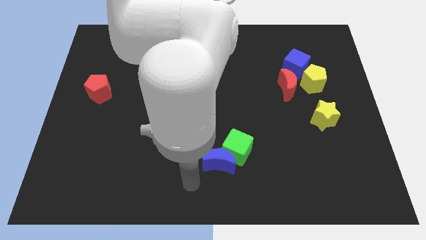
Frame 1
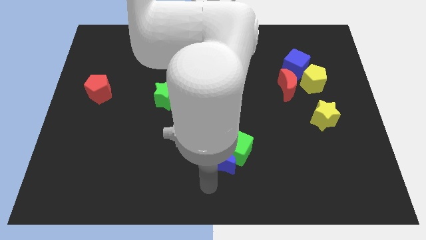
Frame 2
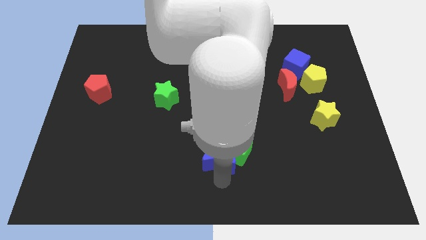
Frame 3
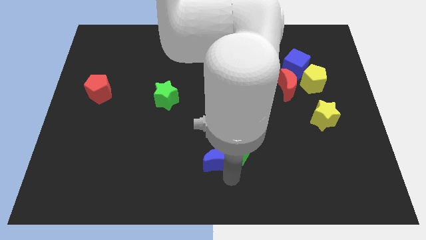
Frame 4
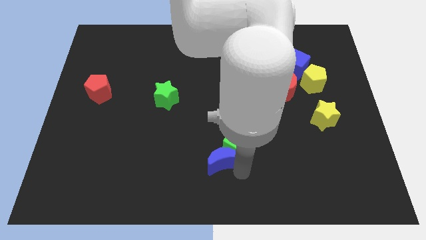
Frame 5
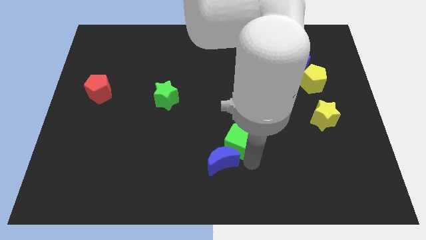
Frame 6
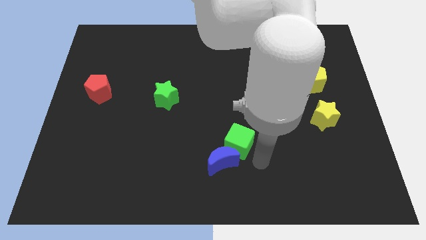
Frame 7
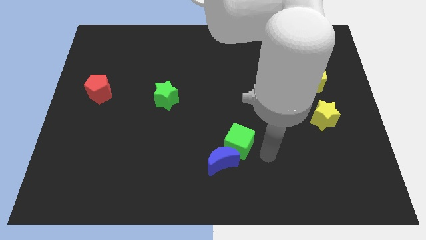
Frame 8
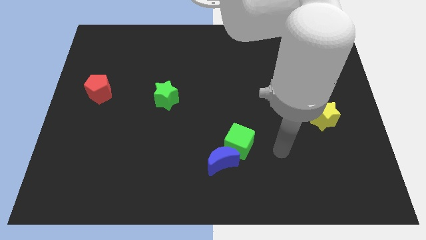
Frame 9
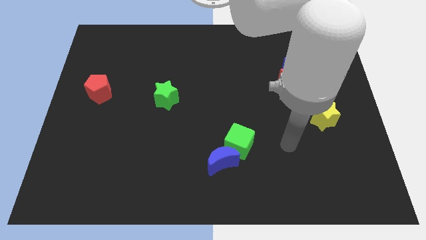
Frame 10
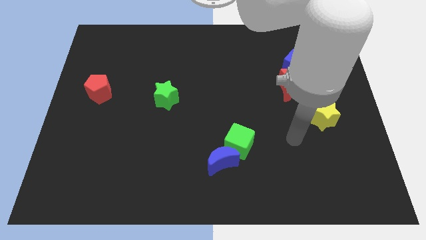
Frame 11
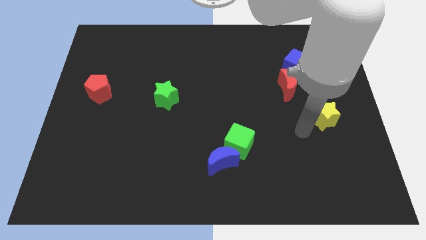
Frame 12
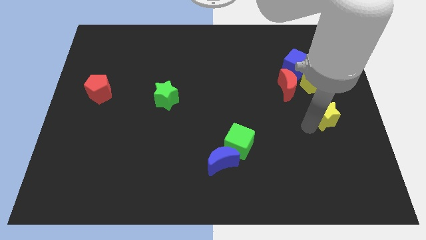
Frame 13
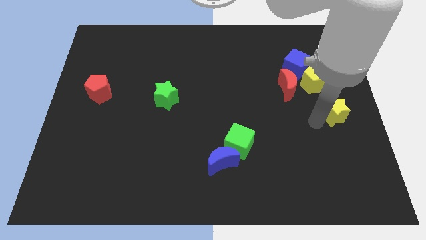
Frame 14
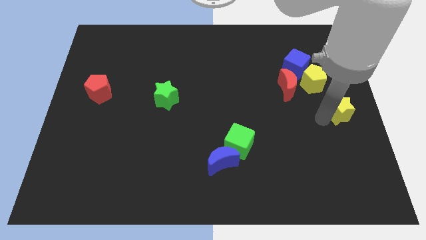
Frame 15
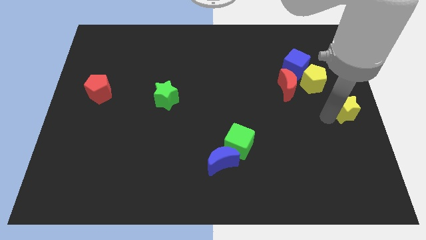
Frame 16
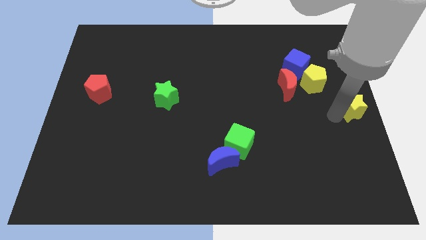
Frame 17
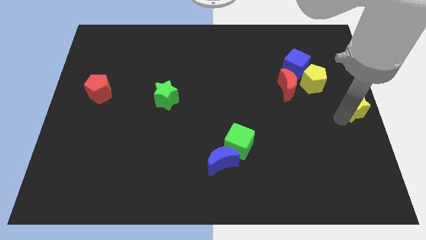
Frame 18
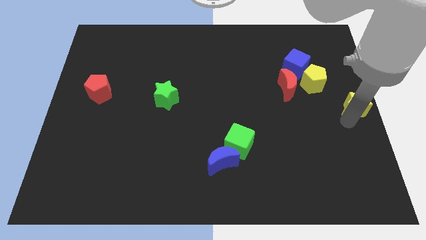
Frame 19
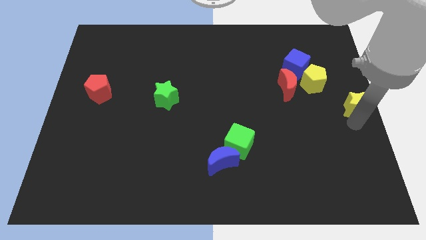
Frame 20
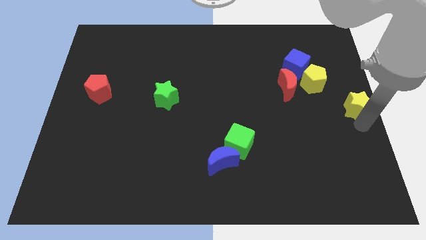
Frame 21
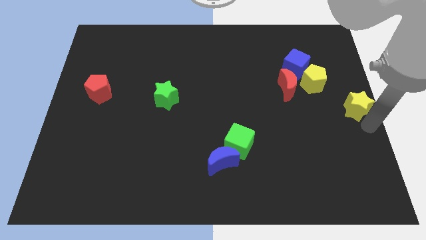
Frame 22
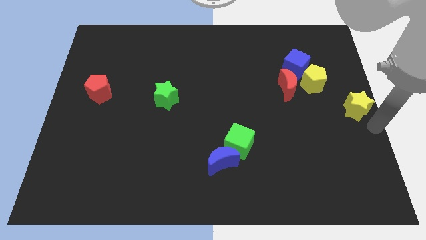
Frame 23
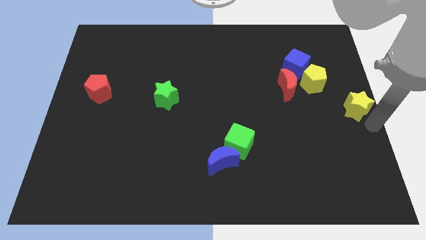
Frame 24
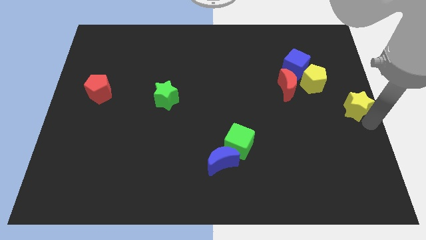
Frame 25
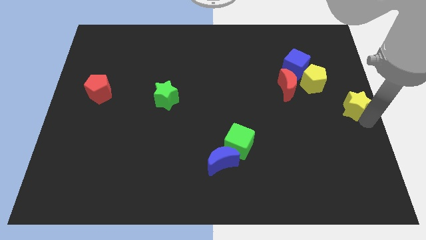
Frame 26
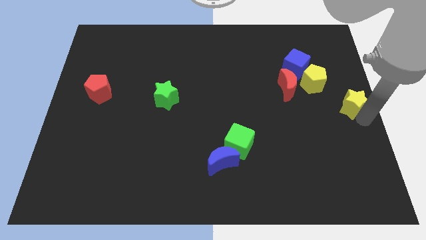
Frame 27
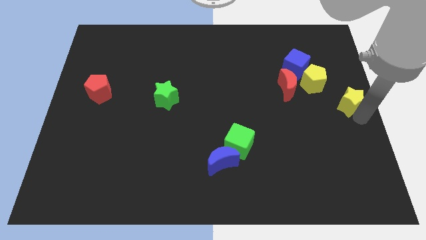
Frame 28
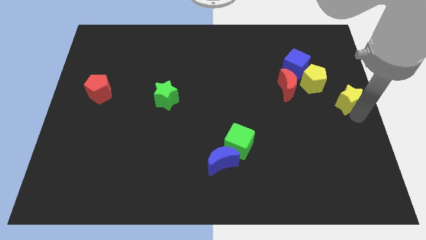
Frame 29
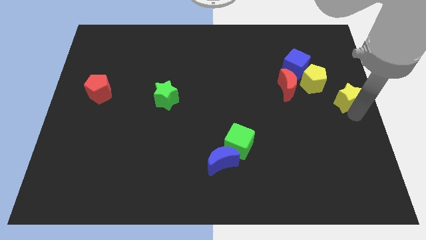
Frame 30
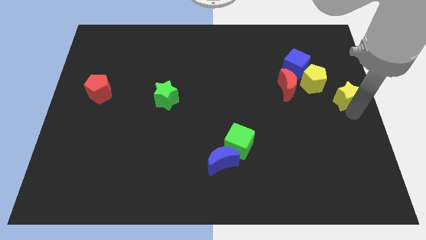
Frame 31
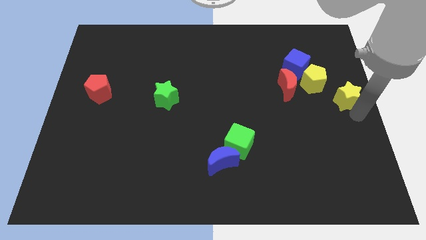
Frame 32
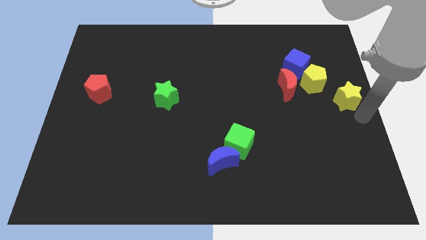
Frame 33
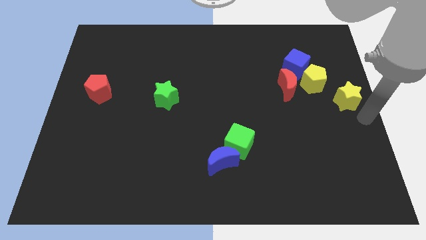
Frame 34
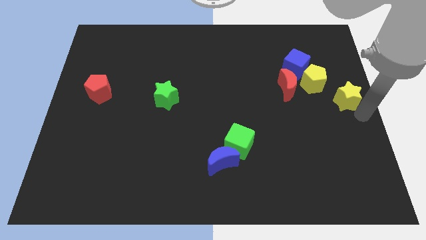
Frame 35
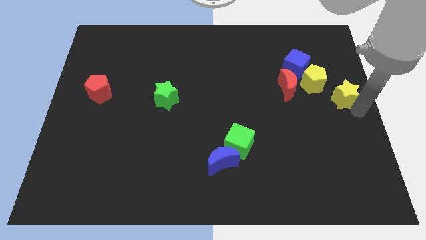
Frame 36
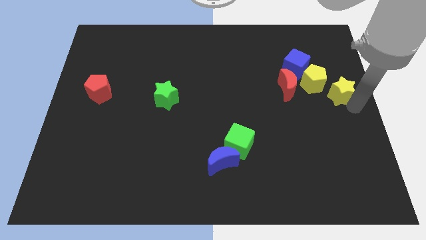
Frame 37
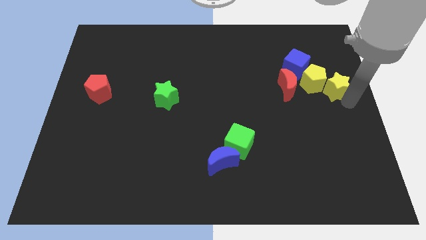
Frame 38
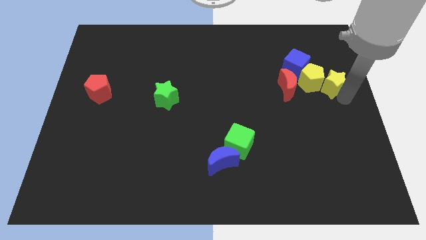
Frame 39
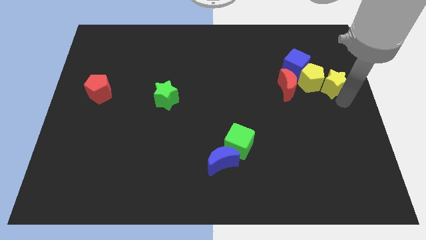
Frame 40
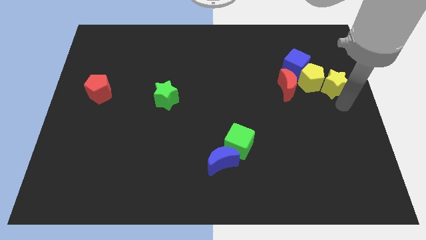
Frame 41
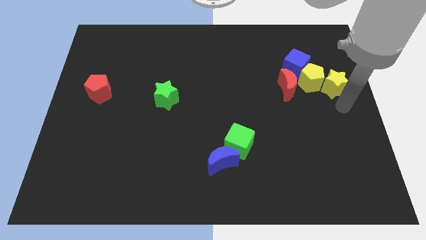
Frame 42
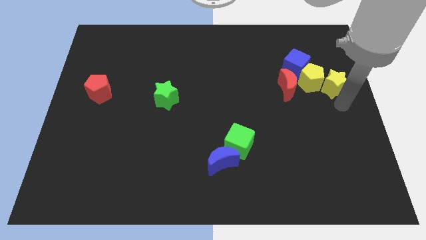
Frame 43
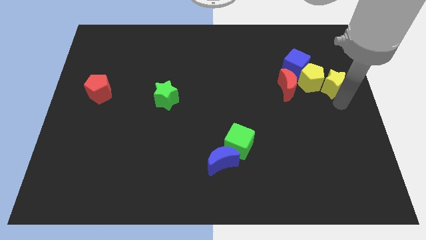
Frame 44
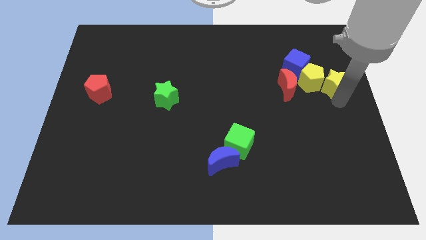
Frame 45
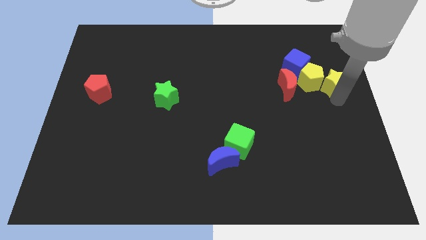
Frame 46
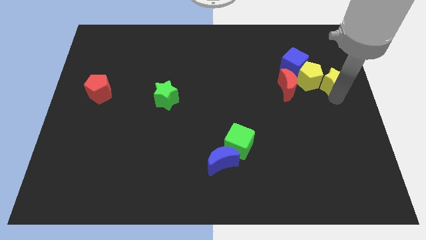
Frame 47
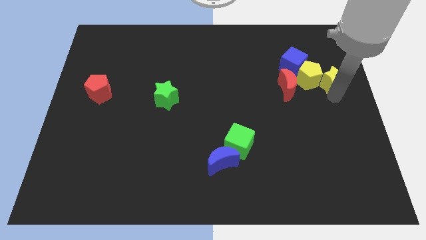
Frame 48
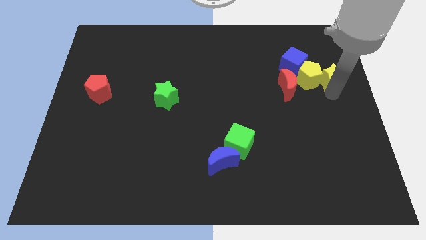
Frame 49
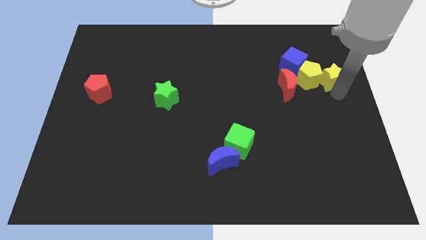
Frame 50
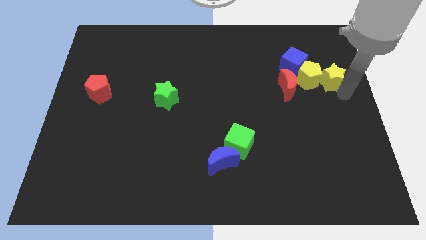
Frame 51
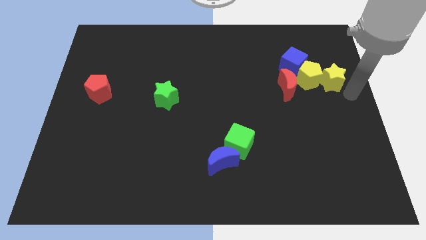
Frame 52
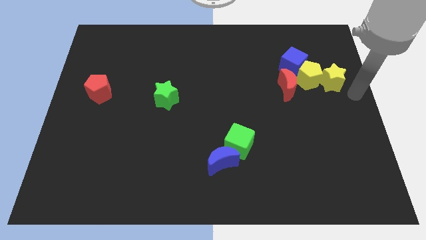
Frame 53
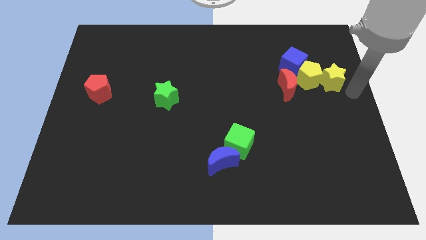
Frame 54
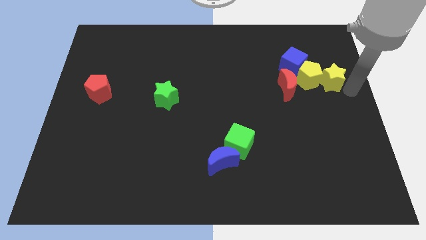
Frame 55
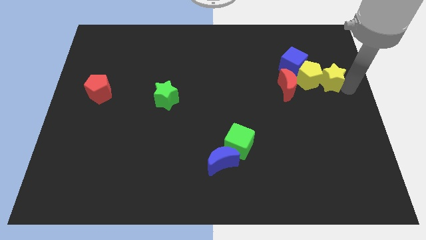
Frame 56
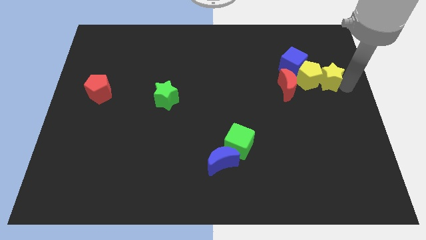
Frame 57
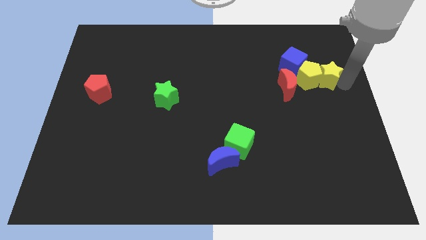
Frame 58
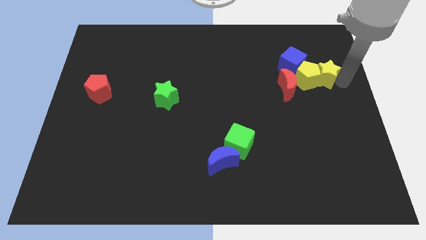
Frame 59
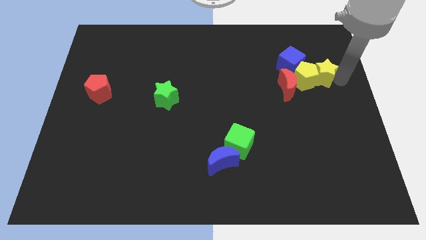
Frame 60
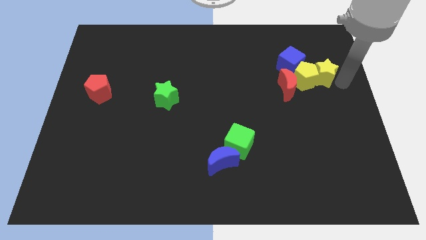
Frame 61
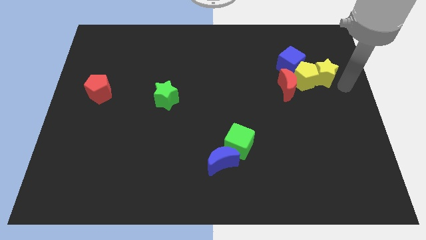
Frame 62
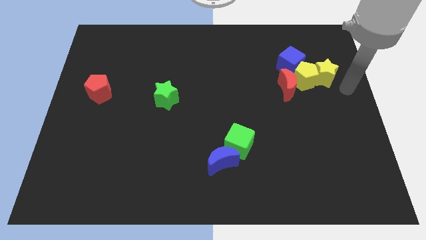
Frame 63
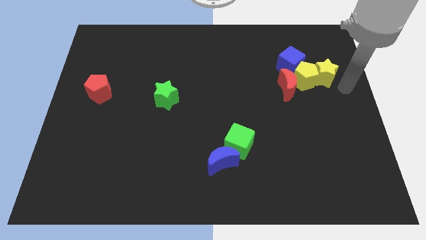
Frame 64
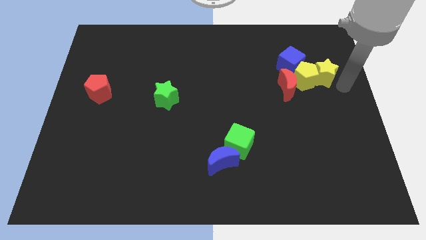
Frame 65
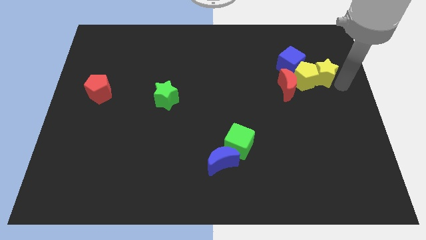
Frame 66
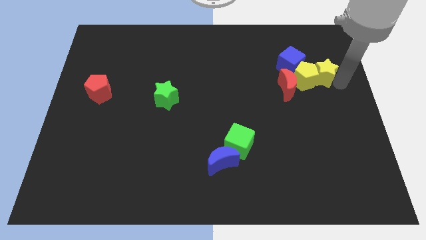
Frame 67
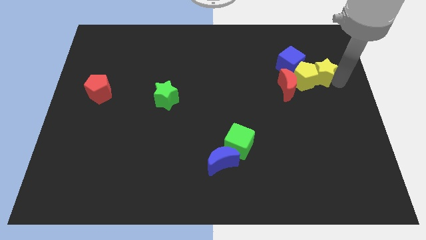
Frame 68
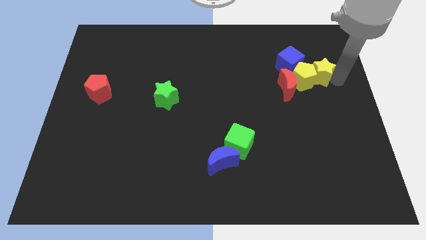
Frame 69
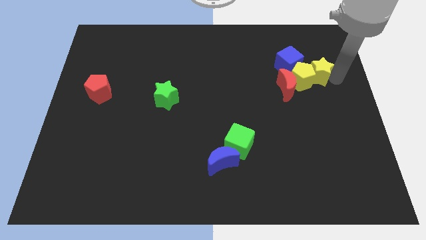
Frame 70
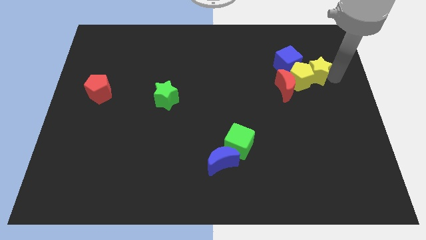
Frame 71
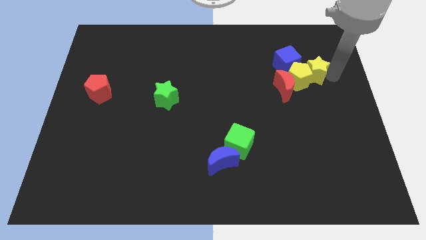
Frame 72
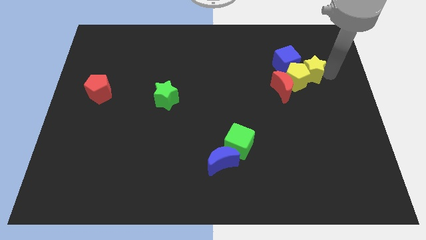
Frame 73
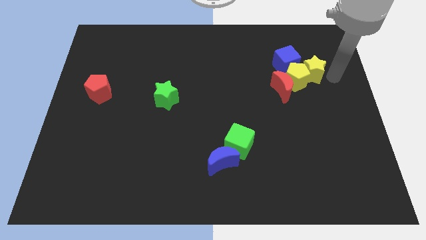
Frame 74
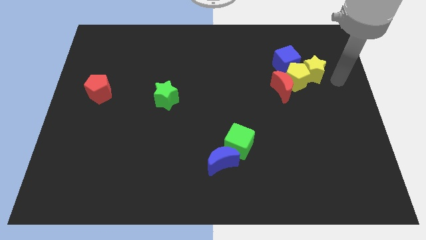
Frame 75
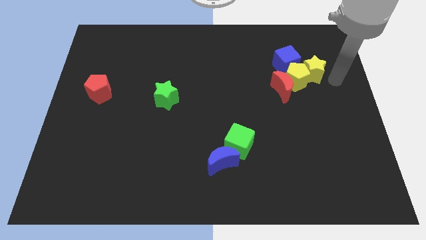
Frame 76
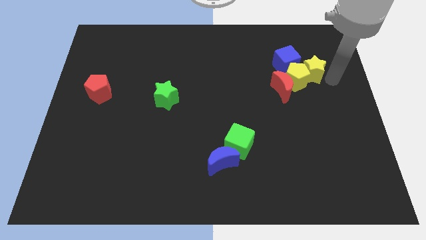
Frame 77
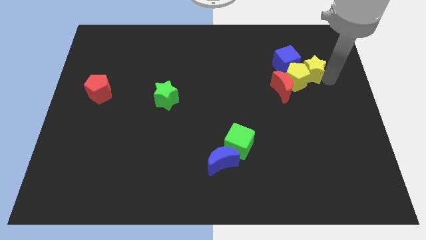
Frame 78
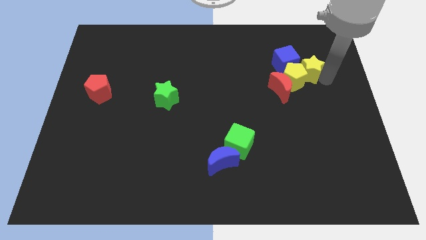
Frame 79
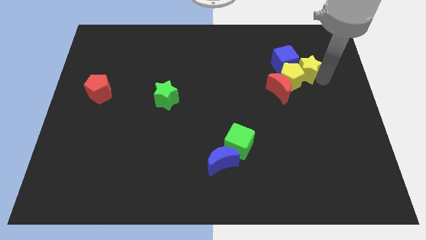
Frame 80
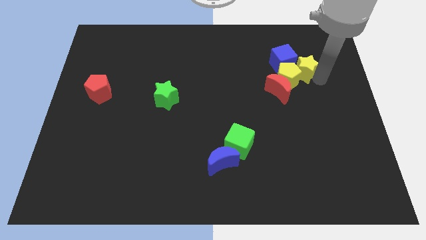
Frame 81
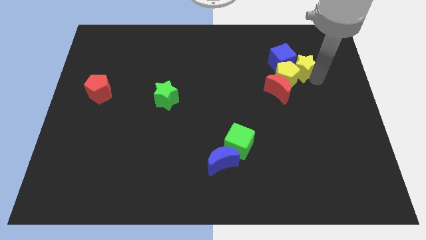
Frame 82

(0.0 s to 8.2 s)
move the yellow star next to the blue cube
